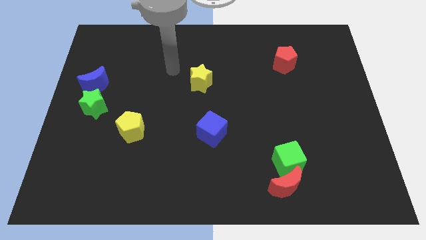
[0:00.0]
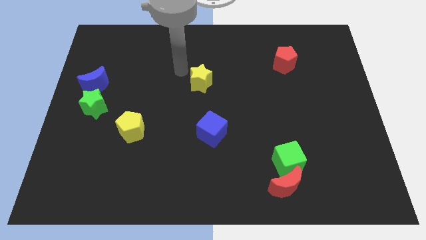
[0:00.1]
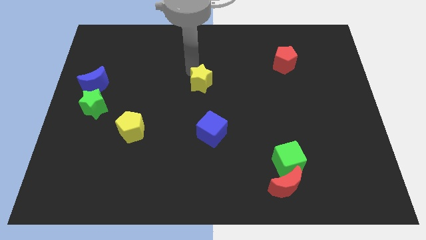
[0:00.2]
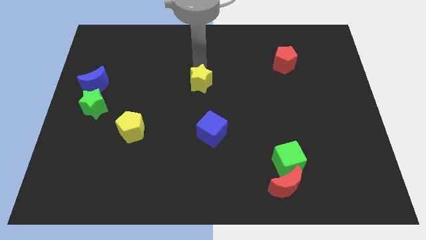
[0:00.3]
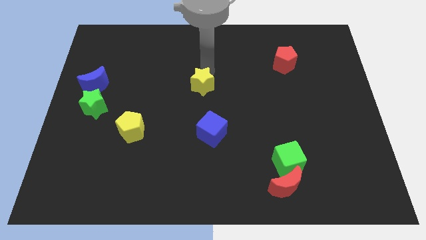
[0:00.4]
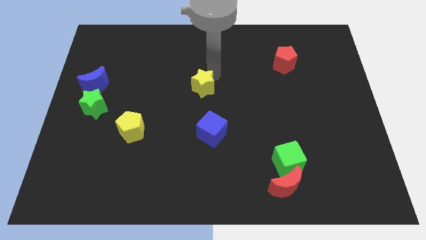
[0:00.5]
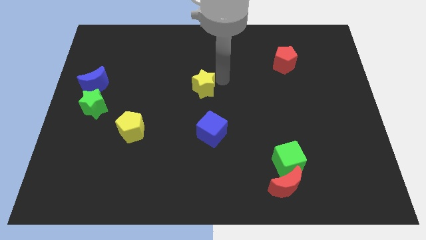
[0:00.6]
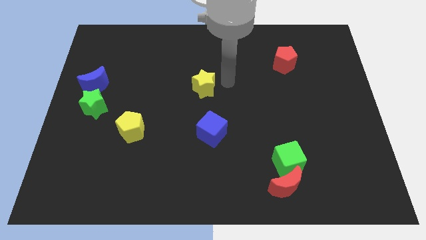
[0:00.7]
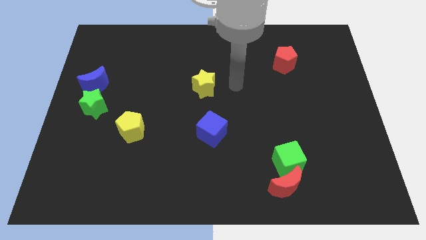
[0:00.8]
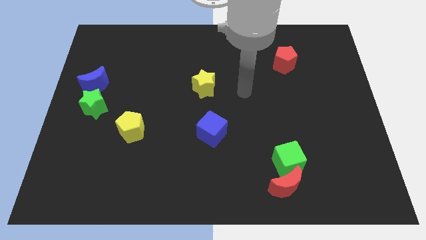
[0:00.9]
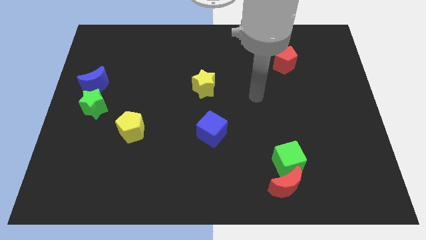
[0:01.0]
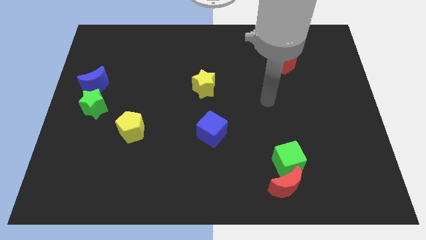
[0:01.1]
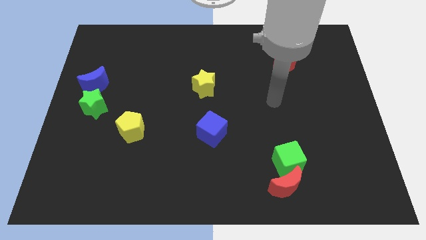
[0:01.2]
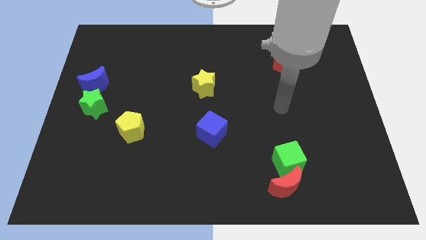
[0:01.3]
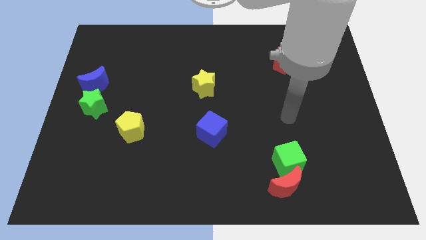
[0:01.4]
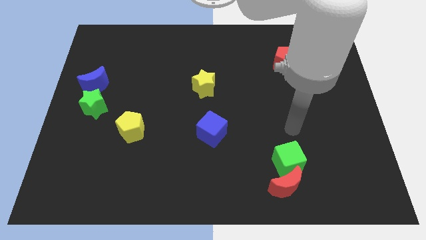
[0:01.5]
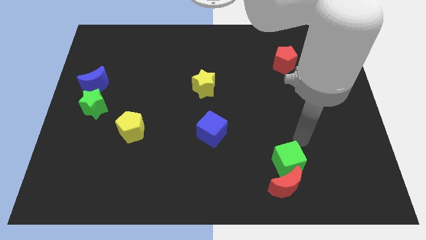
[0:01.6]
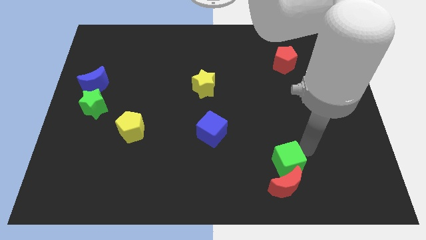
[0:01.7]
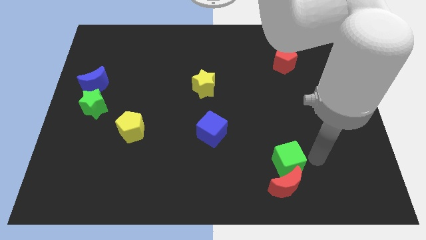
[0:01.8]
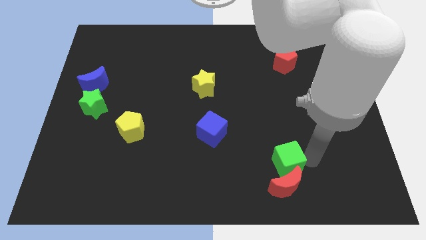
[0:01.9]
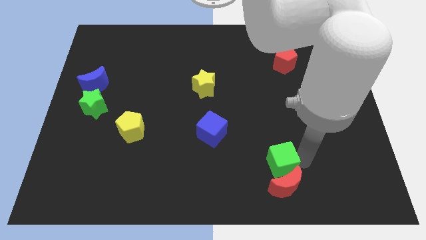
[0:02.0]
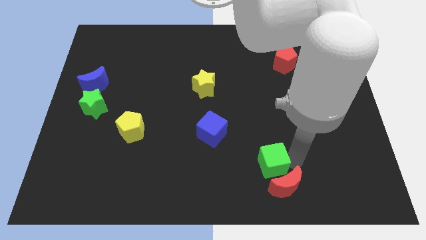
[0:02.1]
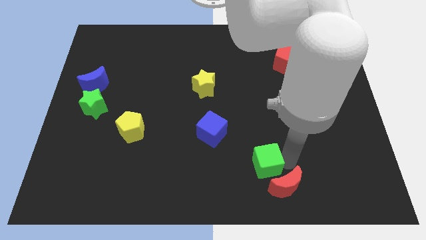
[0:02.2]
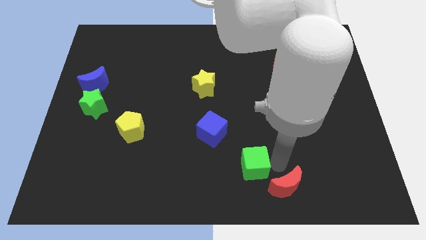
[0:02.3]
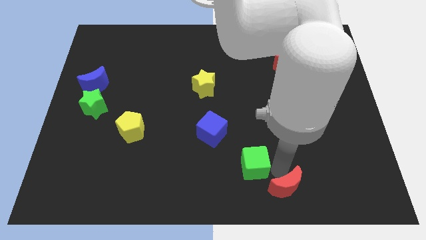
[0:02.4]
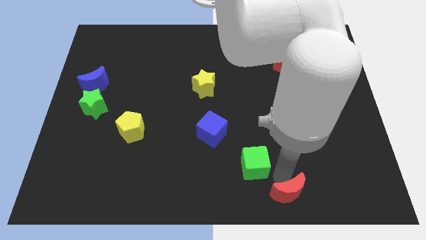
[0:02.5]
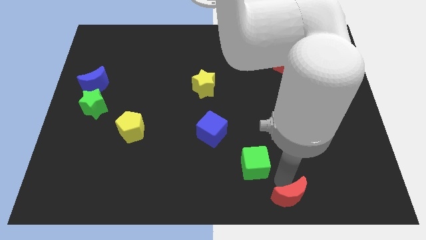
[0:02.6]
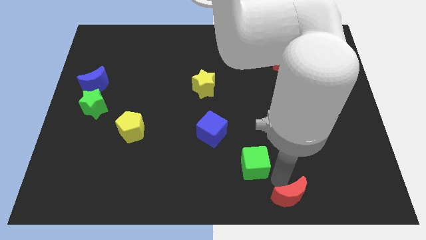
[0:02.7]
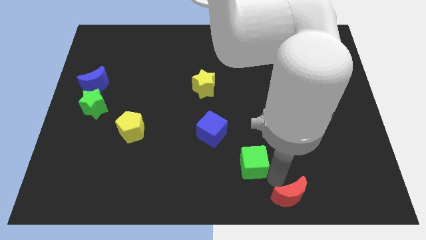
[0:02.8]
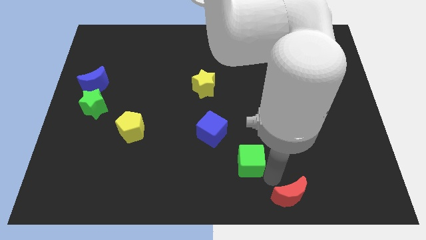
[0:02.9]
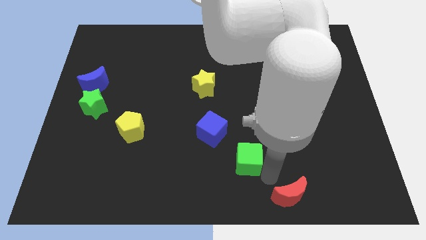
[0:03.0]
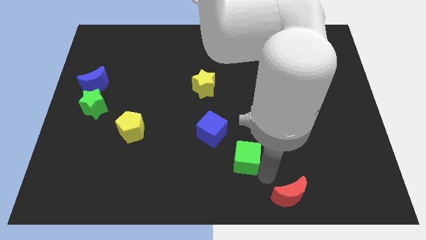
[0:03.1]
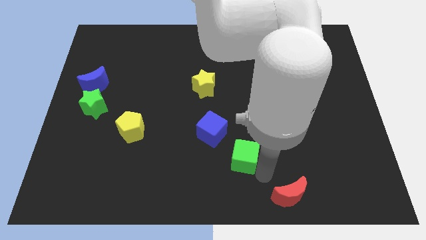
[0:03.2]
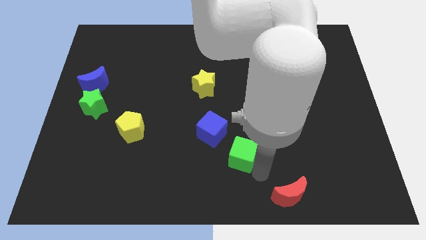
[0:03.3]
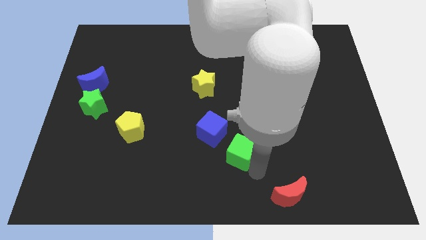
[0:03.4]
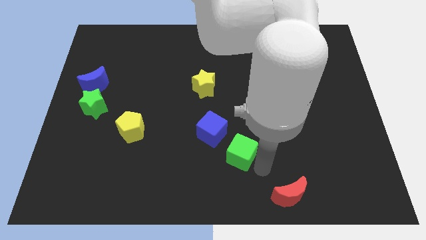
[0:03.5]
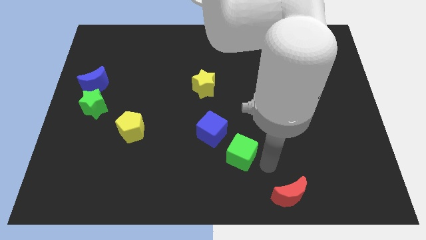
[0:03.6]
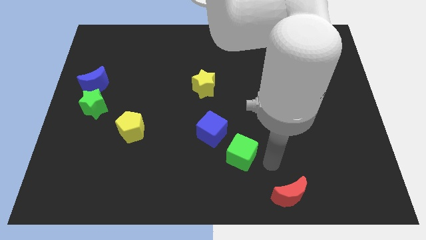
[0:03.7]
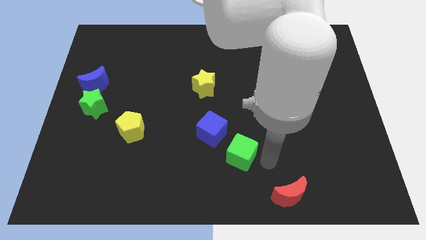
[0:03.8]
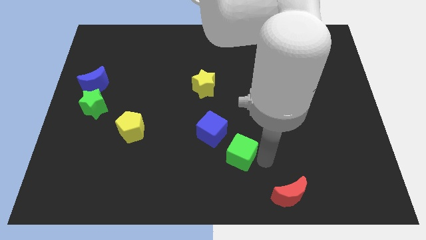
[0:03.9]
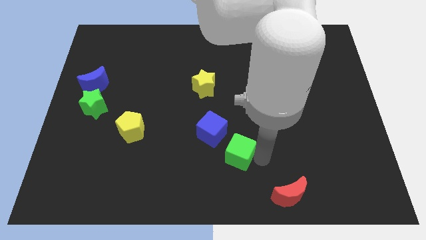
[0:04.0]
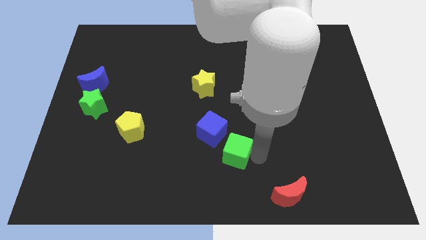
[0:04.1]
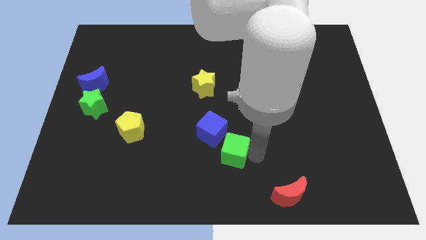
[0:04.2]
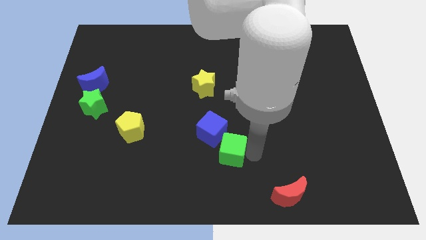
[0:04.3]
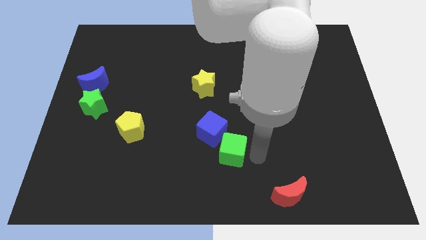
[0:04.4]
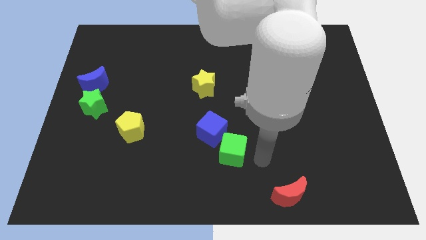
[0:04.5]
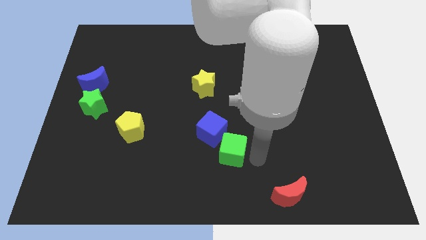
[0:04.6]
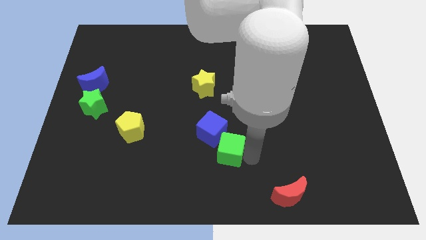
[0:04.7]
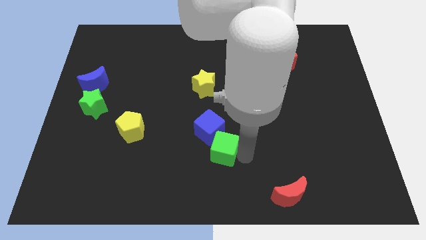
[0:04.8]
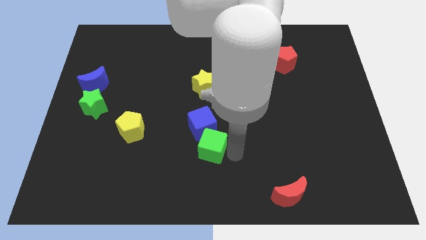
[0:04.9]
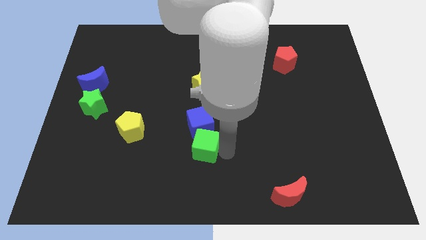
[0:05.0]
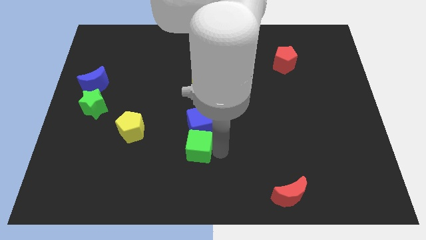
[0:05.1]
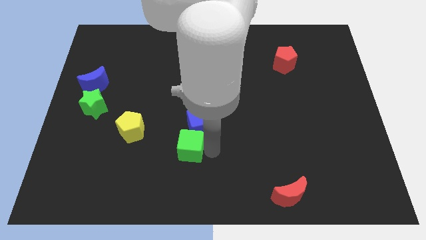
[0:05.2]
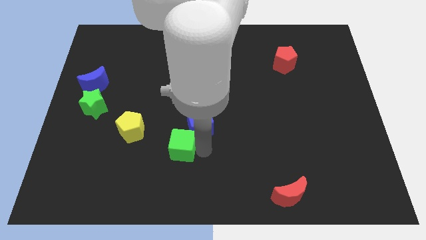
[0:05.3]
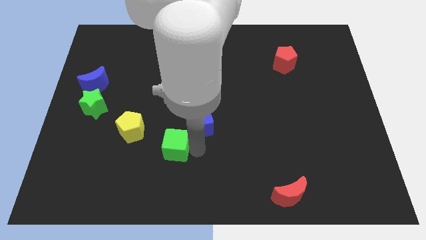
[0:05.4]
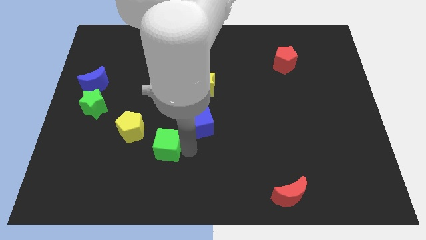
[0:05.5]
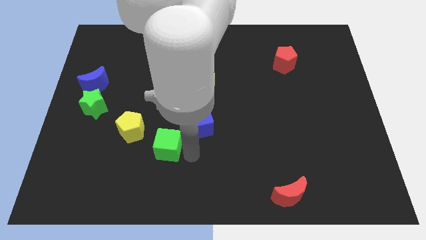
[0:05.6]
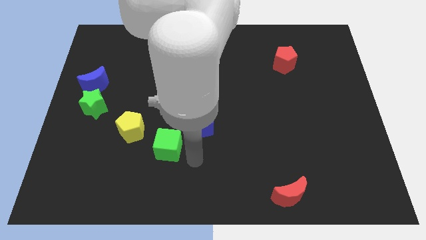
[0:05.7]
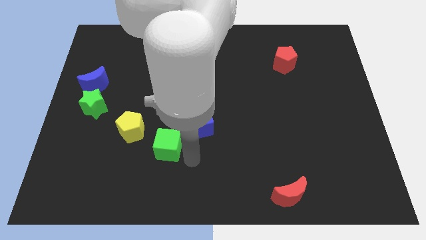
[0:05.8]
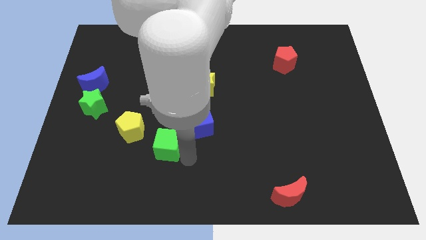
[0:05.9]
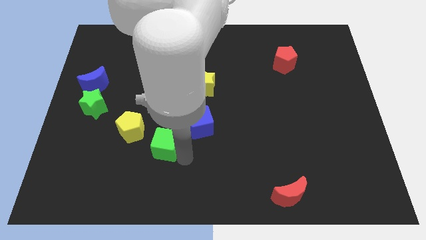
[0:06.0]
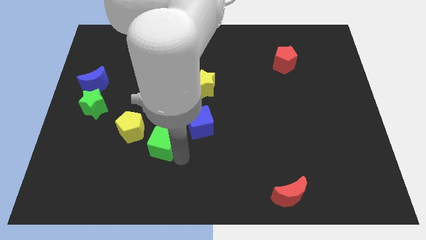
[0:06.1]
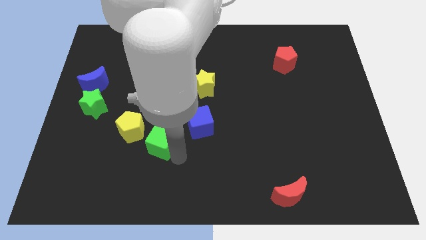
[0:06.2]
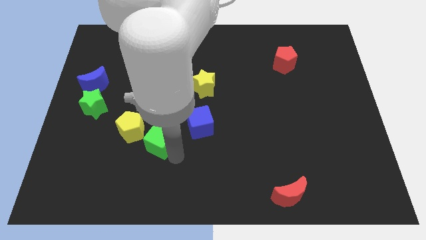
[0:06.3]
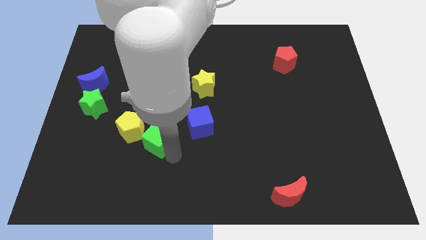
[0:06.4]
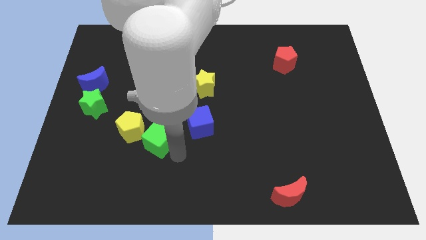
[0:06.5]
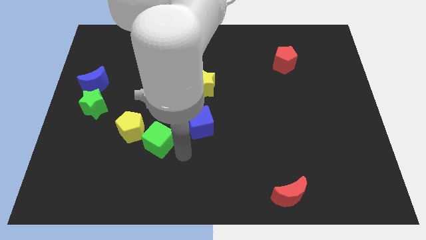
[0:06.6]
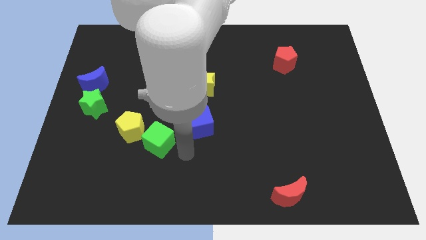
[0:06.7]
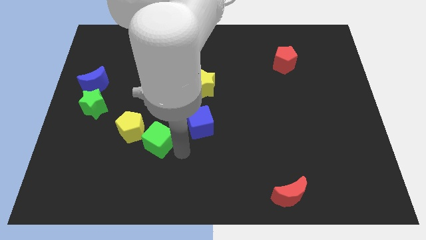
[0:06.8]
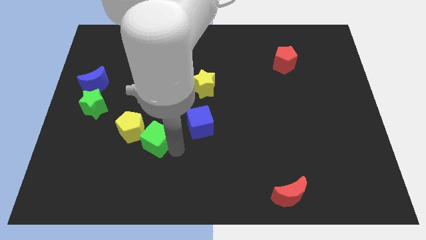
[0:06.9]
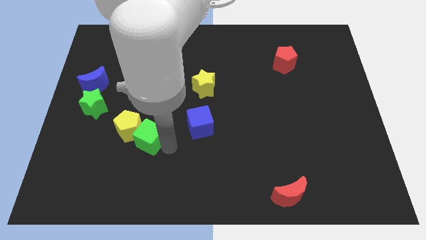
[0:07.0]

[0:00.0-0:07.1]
move the green cube to the yellow pentagon

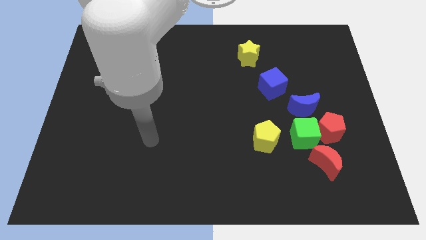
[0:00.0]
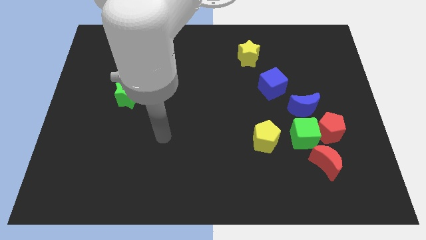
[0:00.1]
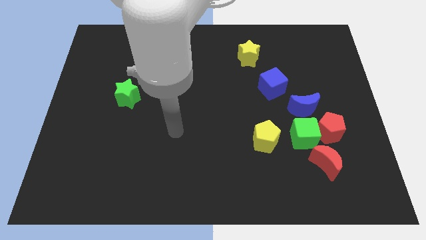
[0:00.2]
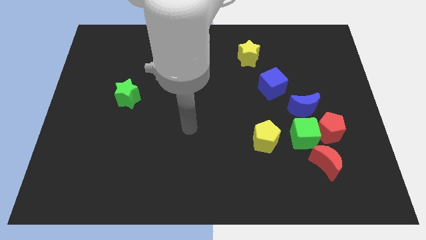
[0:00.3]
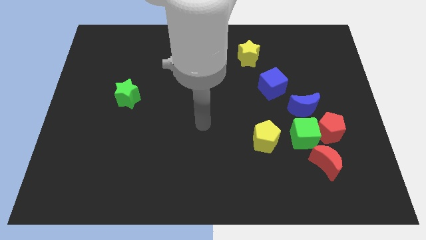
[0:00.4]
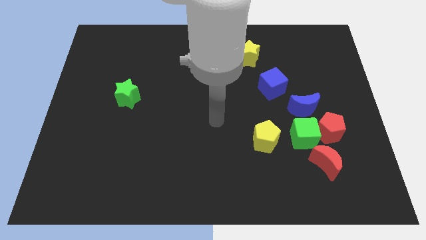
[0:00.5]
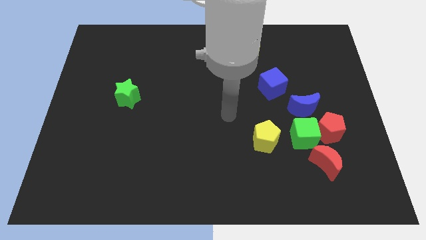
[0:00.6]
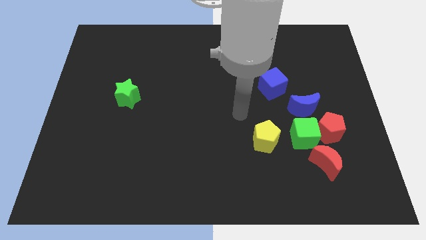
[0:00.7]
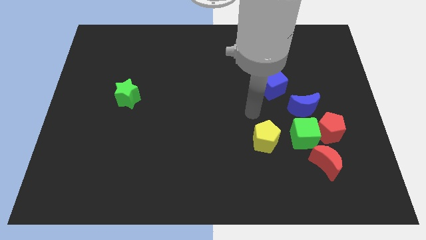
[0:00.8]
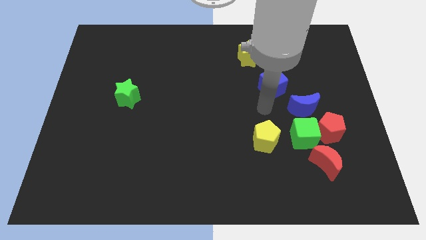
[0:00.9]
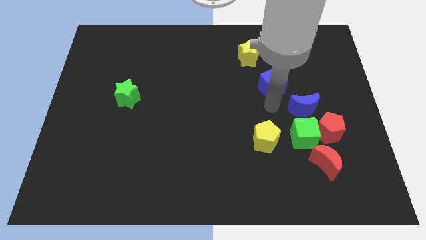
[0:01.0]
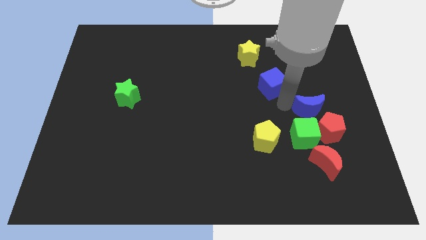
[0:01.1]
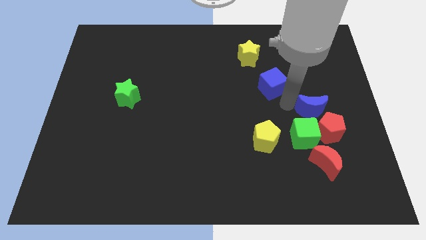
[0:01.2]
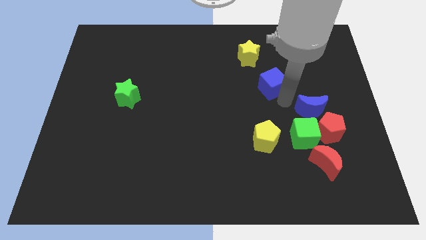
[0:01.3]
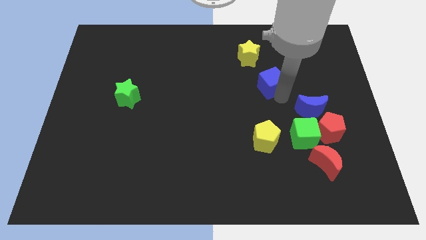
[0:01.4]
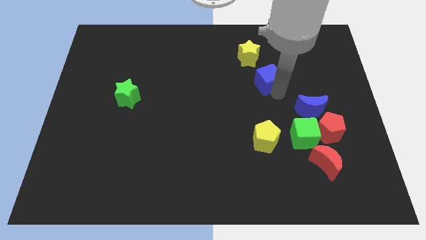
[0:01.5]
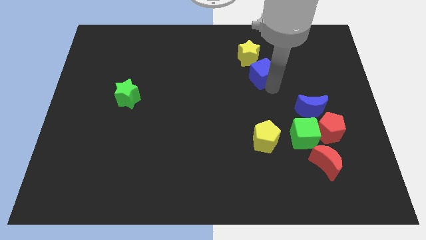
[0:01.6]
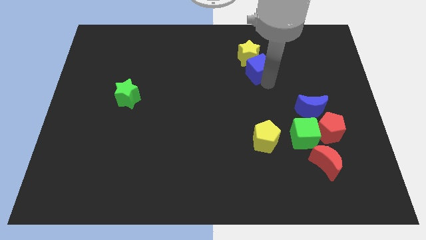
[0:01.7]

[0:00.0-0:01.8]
put the blue cube towards the yellow star
